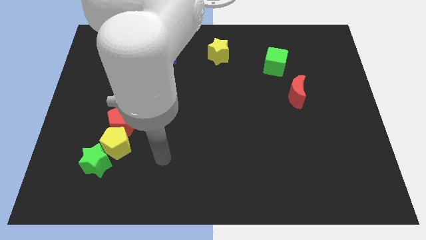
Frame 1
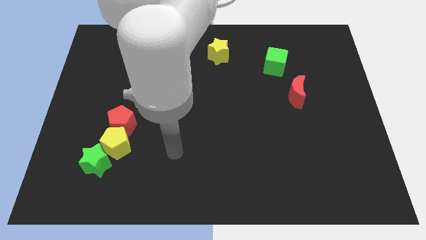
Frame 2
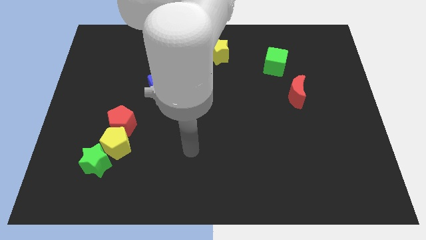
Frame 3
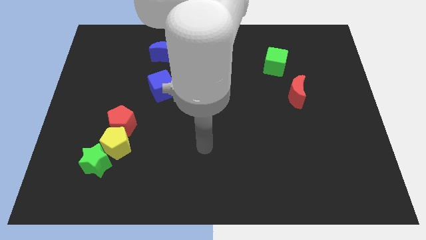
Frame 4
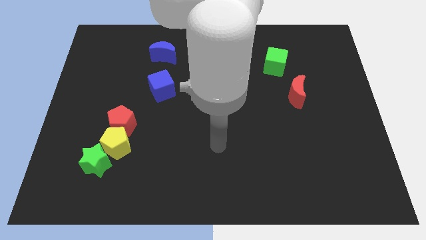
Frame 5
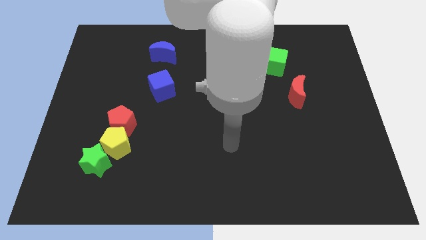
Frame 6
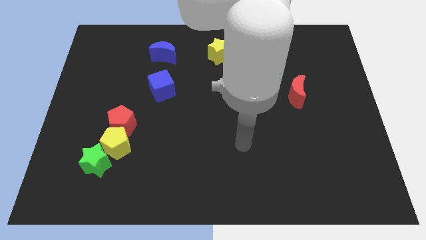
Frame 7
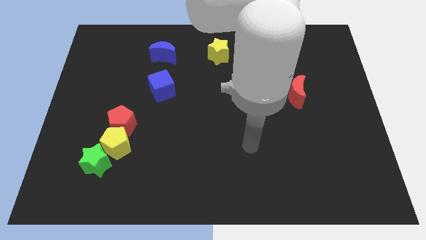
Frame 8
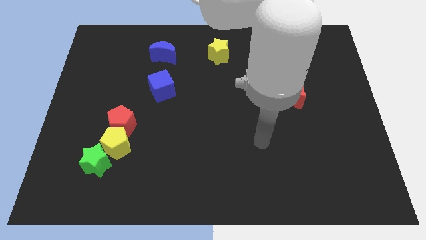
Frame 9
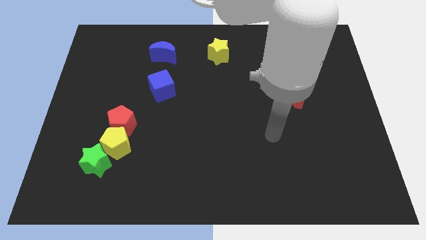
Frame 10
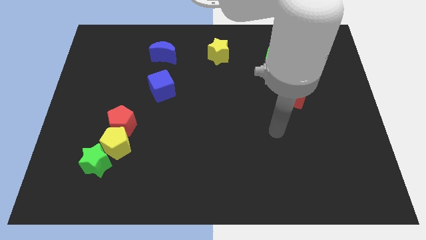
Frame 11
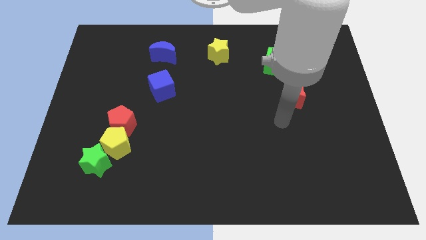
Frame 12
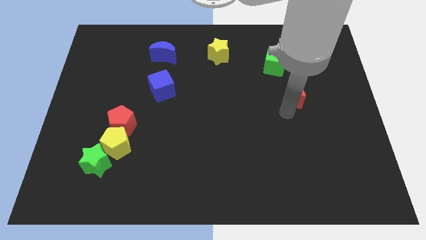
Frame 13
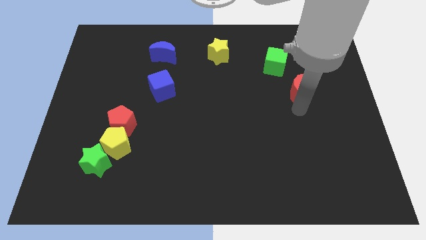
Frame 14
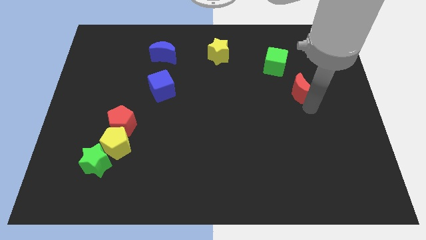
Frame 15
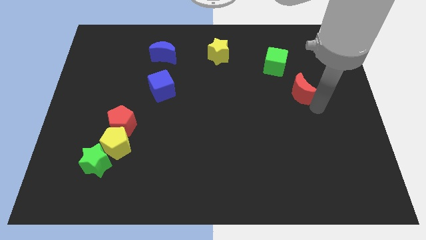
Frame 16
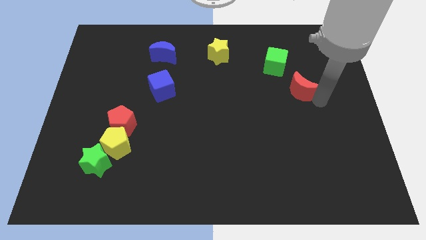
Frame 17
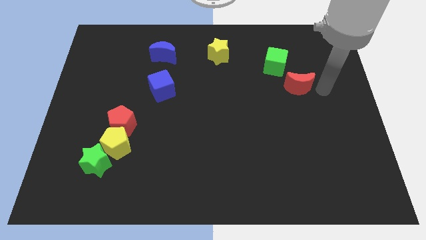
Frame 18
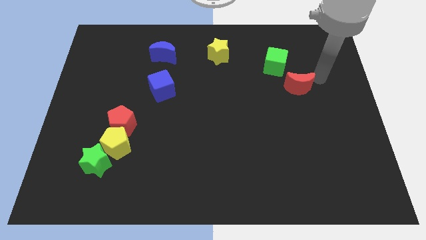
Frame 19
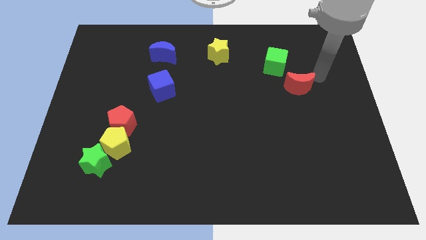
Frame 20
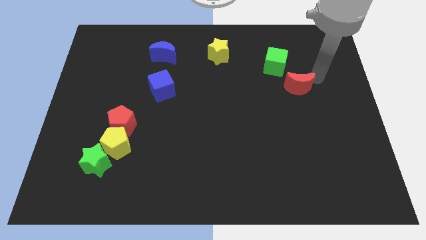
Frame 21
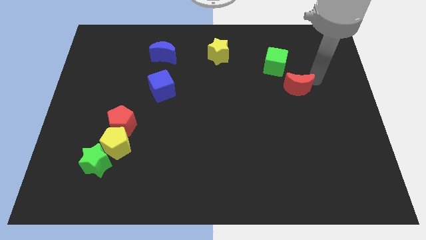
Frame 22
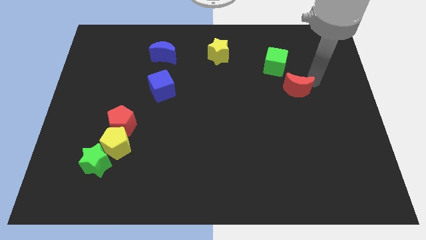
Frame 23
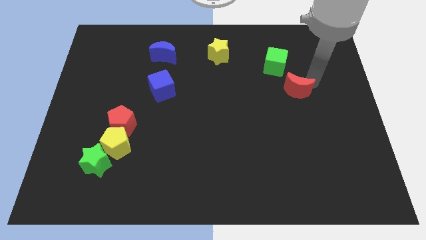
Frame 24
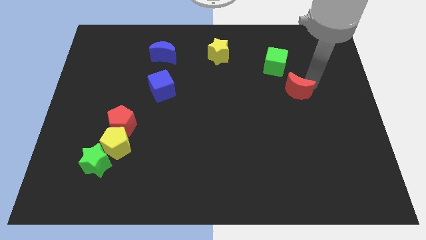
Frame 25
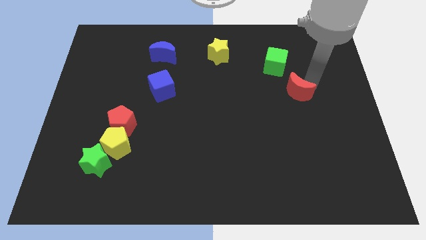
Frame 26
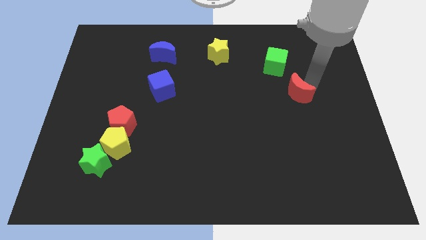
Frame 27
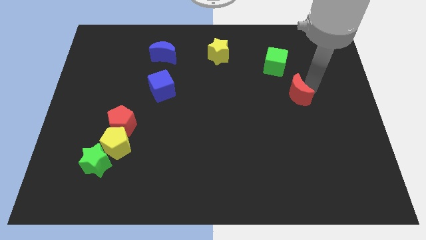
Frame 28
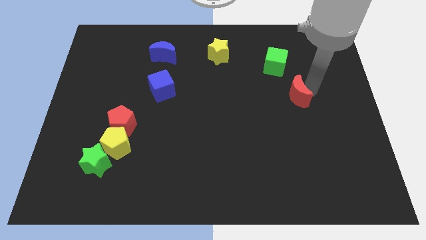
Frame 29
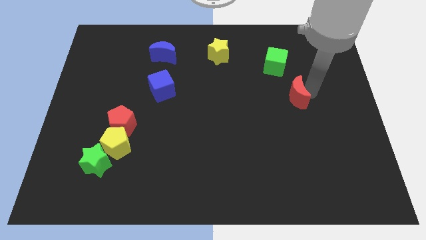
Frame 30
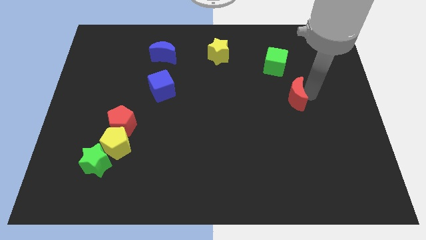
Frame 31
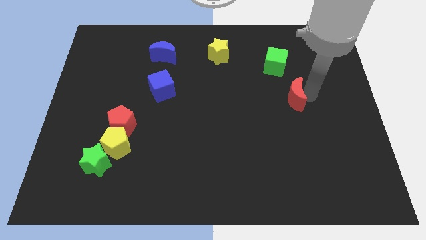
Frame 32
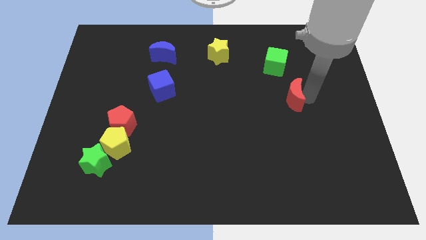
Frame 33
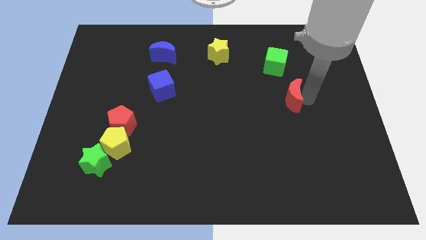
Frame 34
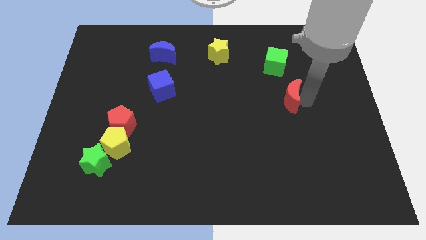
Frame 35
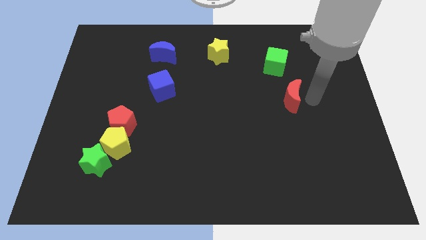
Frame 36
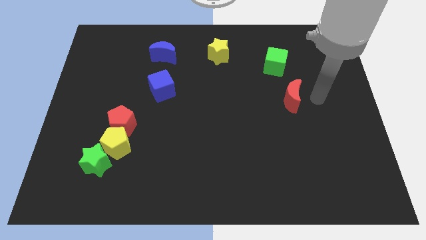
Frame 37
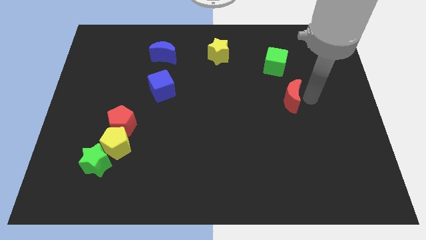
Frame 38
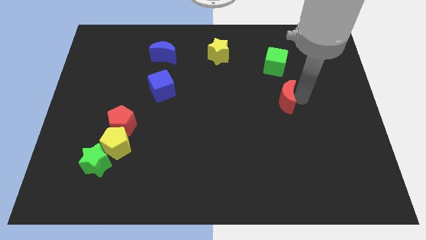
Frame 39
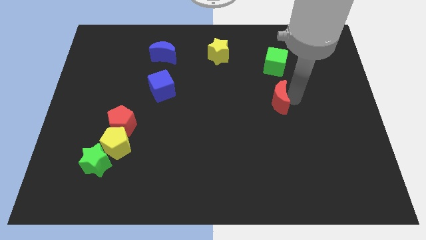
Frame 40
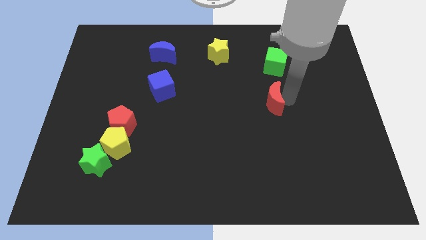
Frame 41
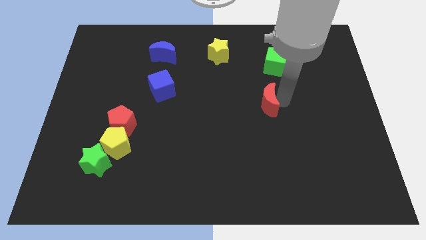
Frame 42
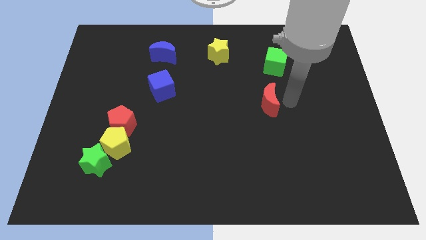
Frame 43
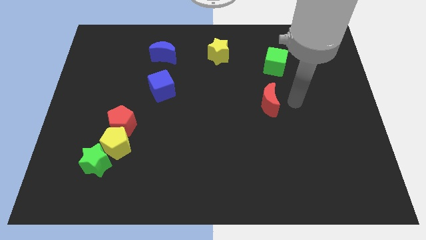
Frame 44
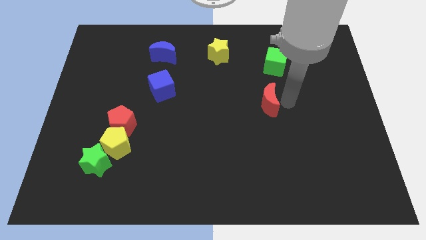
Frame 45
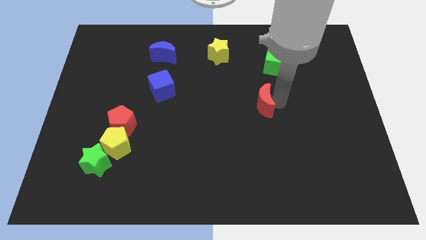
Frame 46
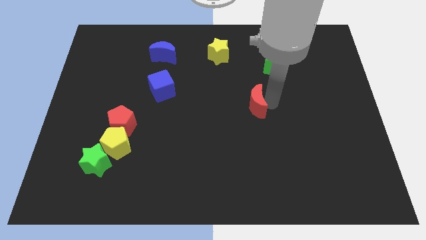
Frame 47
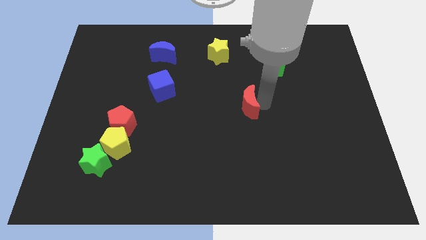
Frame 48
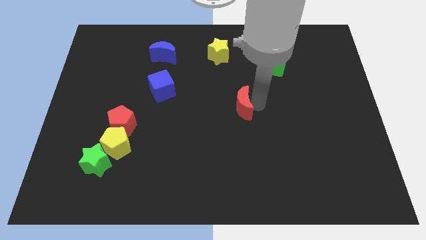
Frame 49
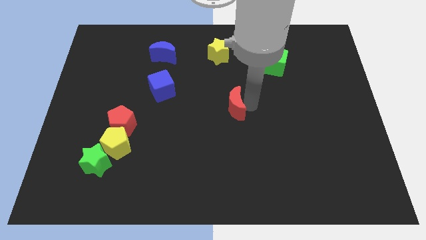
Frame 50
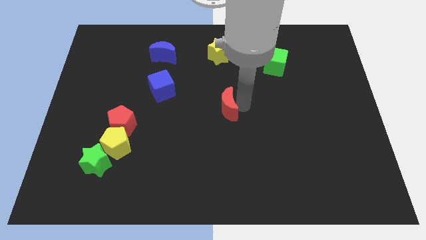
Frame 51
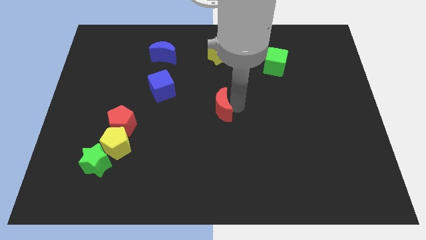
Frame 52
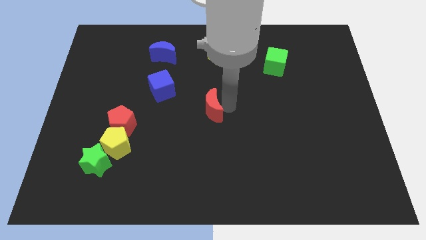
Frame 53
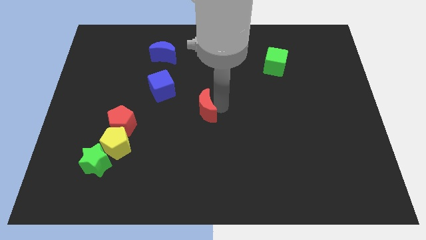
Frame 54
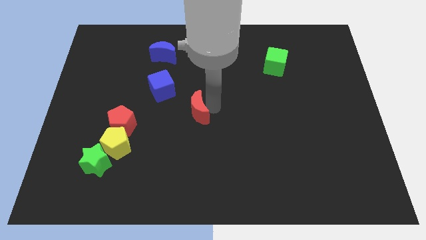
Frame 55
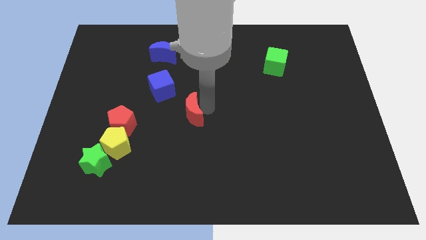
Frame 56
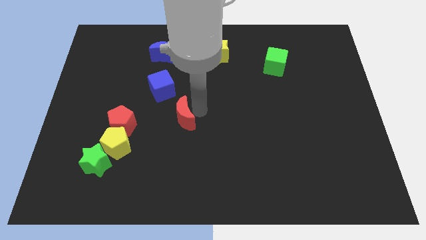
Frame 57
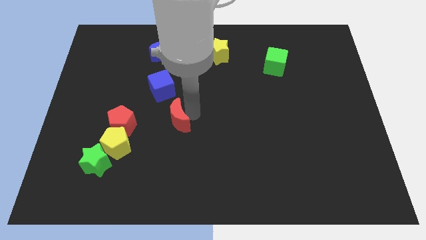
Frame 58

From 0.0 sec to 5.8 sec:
slide the red moon below the blue cube
